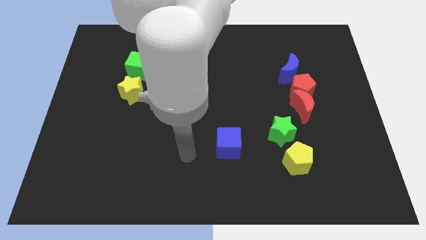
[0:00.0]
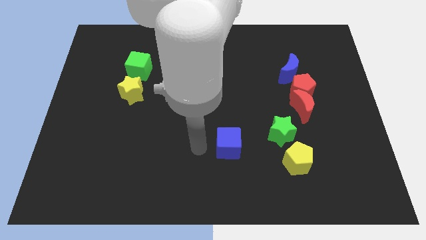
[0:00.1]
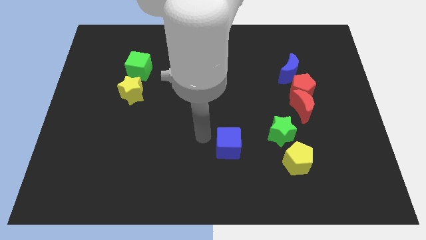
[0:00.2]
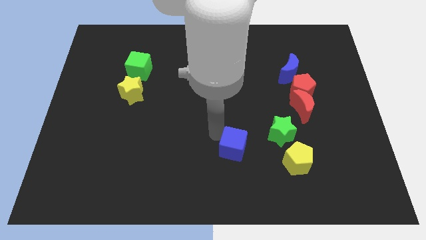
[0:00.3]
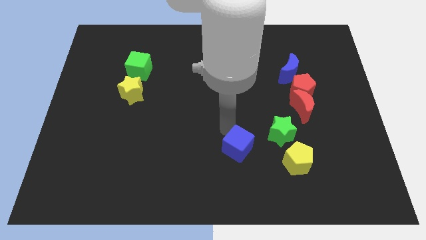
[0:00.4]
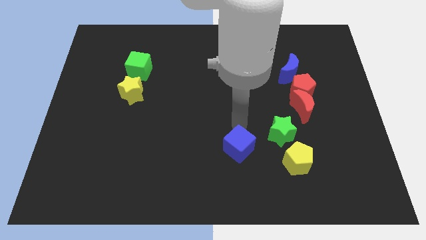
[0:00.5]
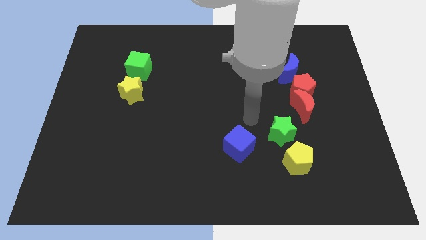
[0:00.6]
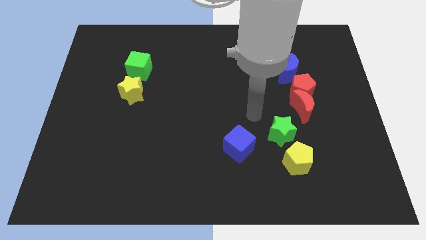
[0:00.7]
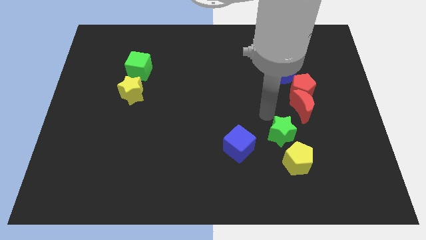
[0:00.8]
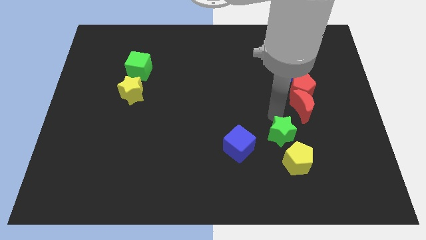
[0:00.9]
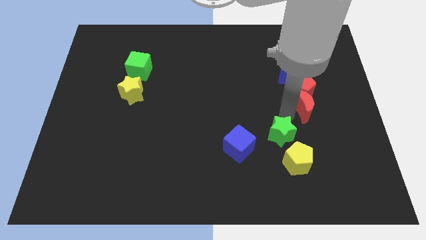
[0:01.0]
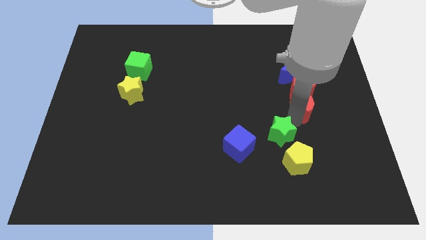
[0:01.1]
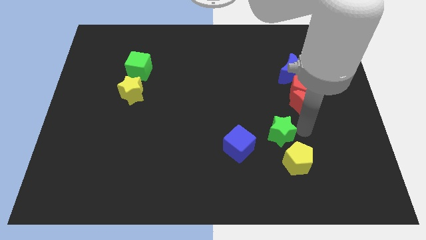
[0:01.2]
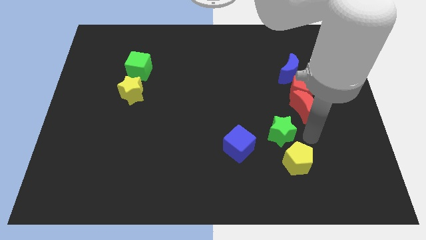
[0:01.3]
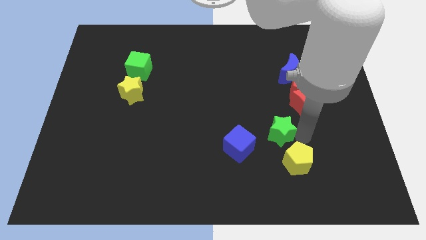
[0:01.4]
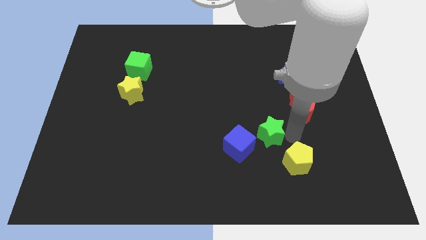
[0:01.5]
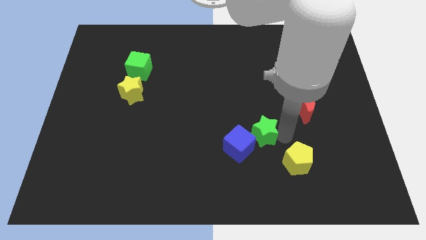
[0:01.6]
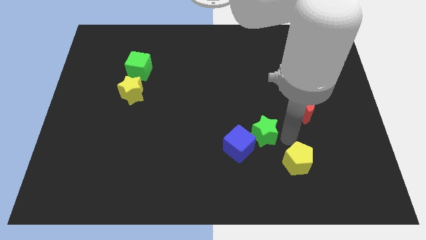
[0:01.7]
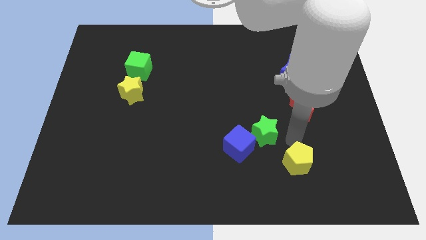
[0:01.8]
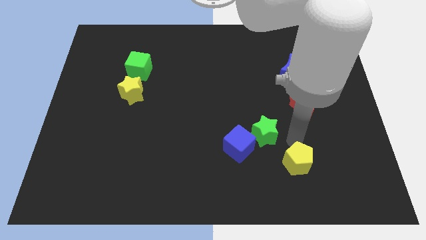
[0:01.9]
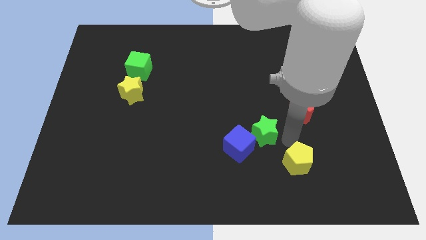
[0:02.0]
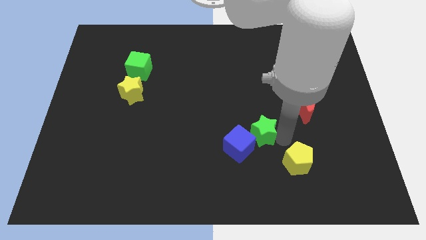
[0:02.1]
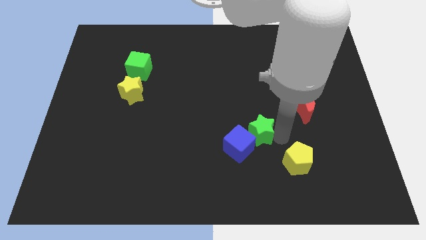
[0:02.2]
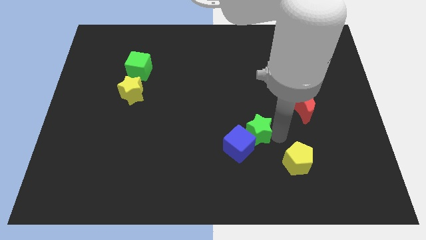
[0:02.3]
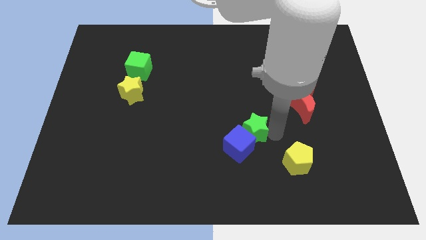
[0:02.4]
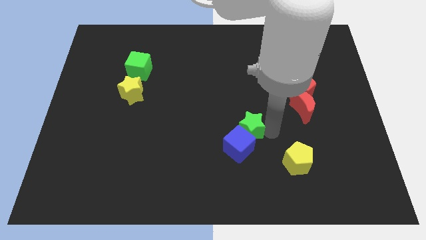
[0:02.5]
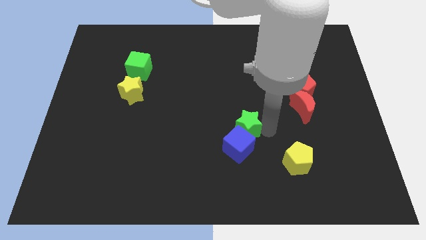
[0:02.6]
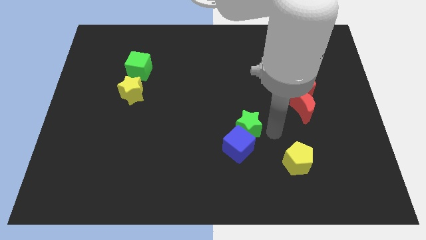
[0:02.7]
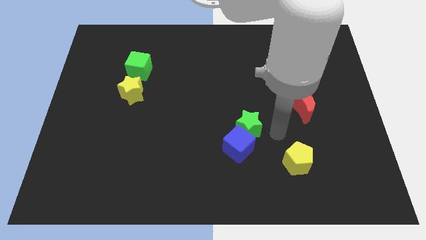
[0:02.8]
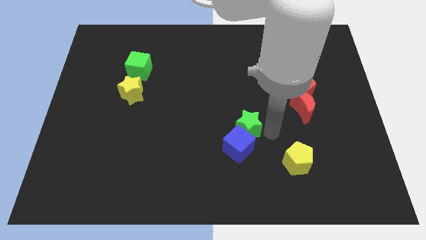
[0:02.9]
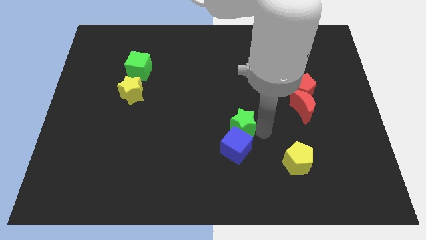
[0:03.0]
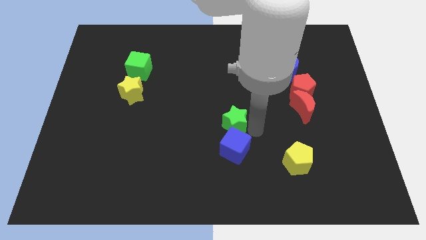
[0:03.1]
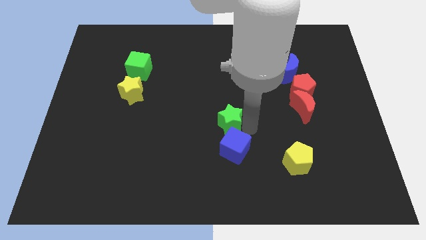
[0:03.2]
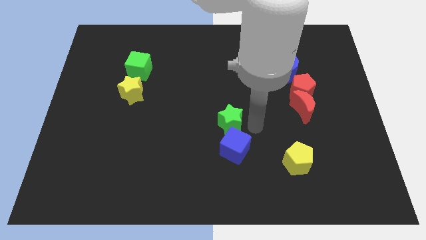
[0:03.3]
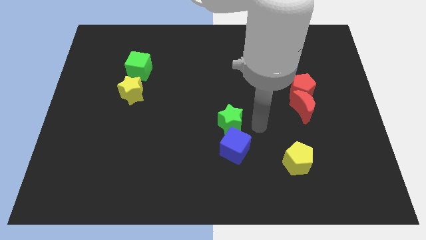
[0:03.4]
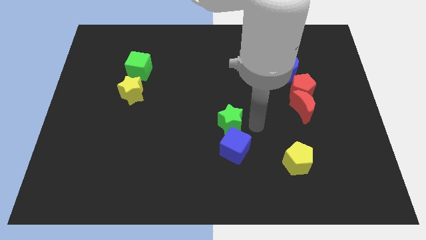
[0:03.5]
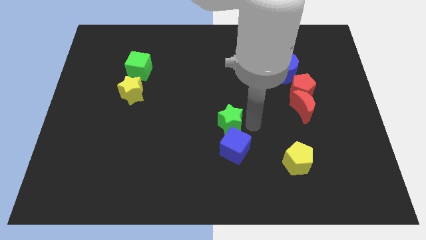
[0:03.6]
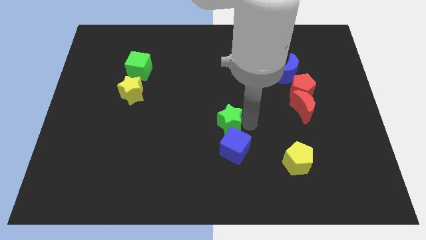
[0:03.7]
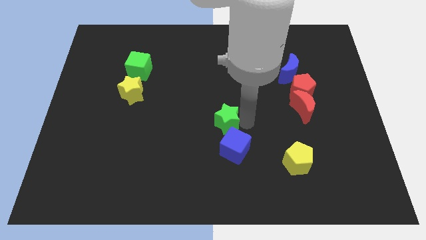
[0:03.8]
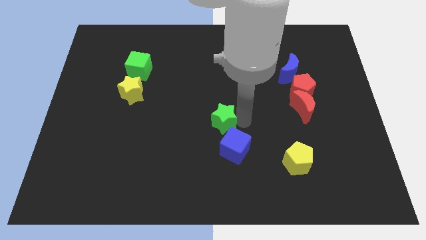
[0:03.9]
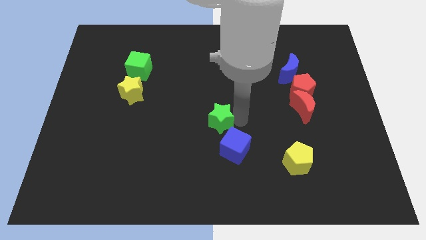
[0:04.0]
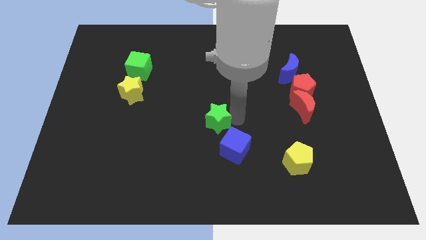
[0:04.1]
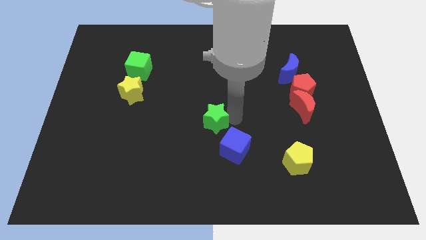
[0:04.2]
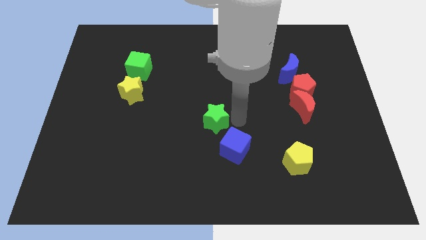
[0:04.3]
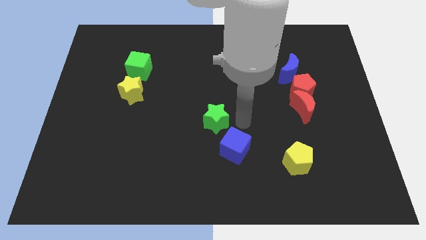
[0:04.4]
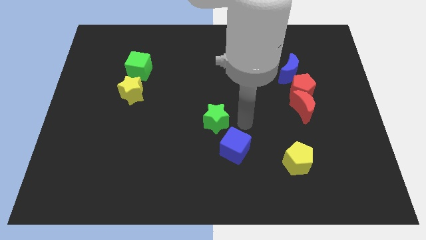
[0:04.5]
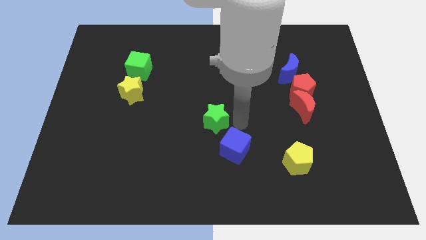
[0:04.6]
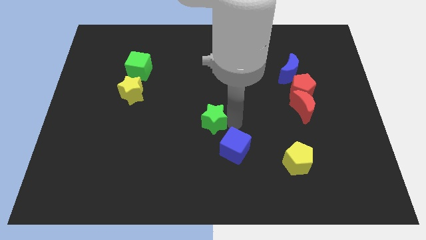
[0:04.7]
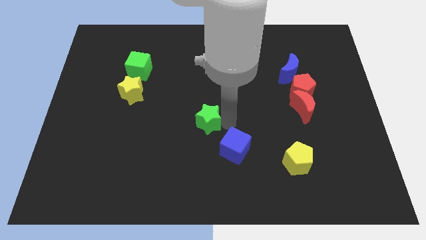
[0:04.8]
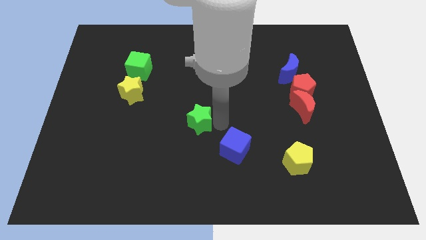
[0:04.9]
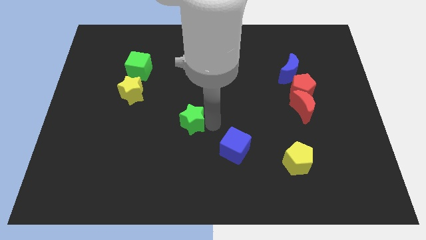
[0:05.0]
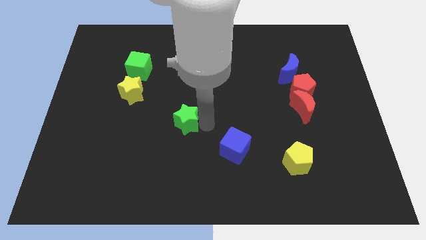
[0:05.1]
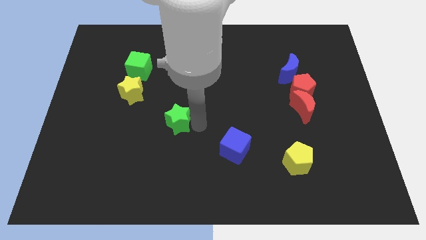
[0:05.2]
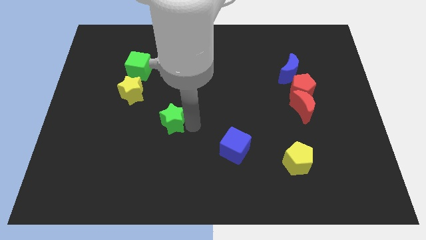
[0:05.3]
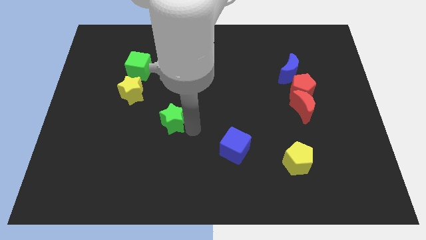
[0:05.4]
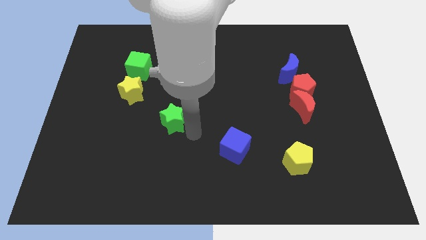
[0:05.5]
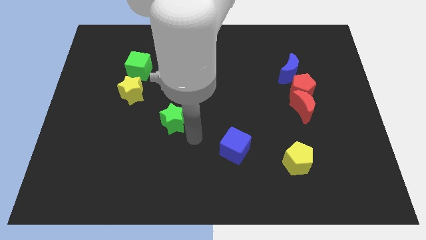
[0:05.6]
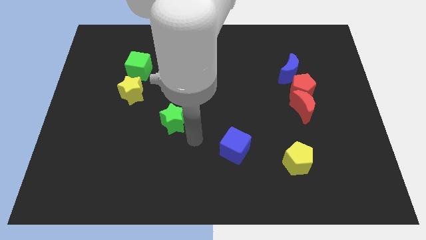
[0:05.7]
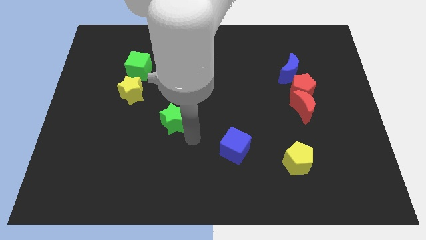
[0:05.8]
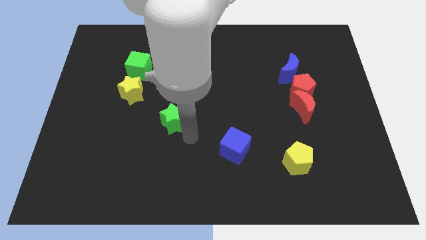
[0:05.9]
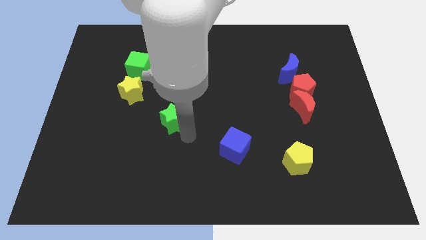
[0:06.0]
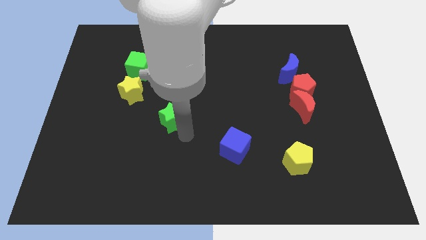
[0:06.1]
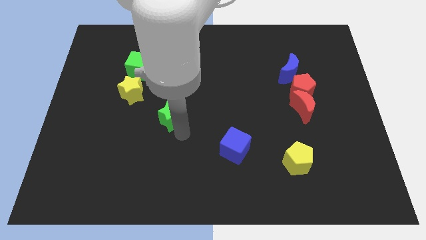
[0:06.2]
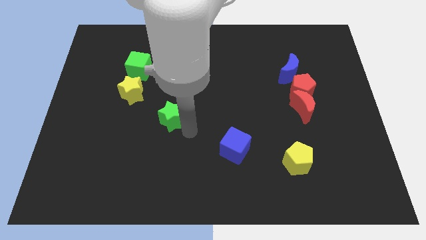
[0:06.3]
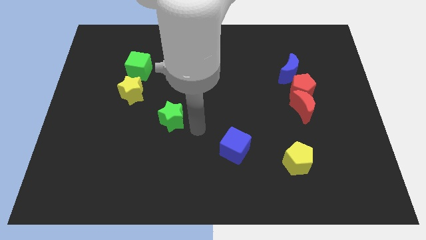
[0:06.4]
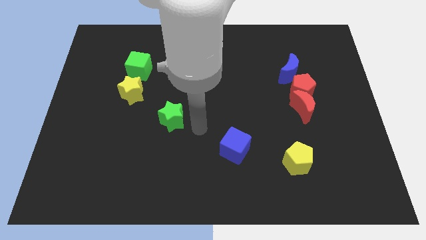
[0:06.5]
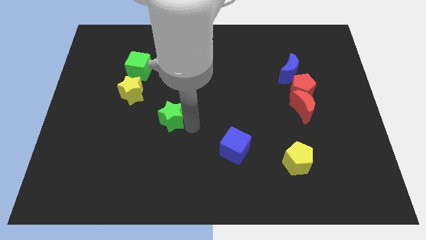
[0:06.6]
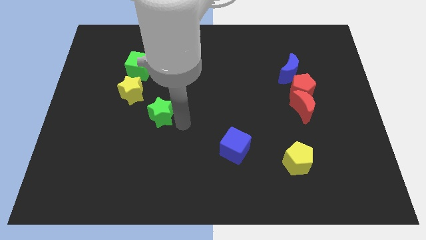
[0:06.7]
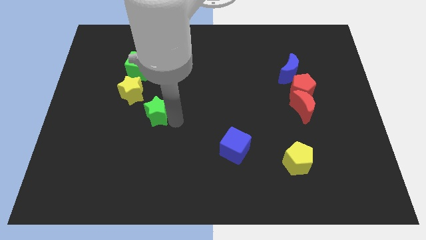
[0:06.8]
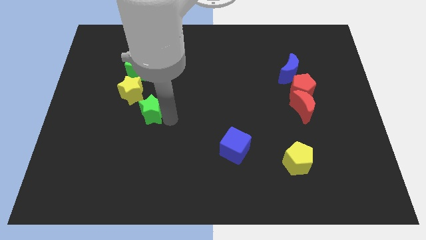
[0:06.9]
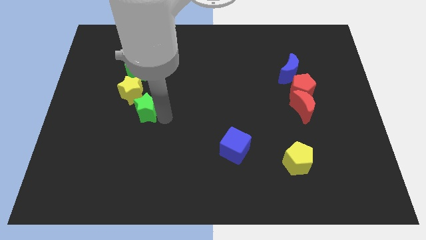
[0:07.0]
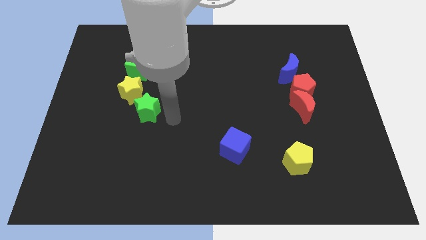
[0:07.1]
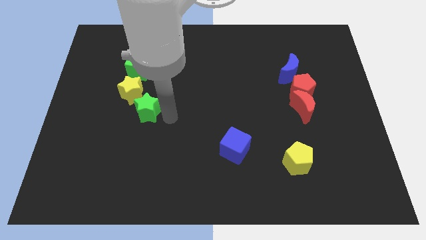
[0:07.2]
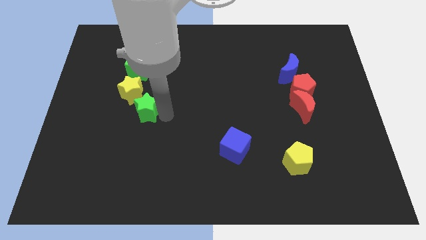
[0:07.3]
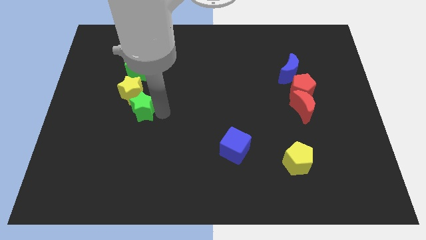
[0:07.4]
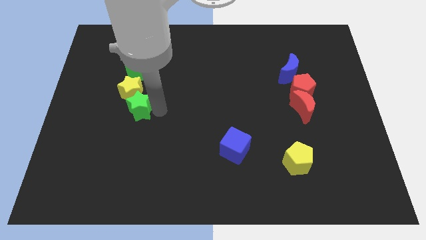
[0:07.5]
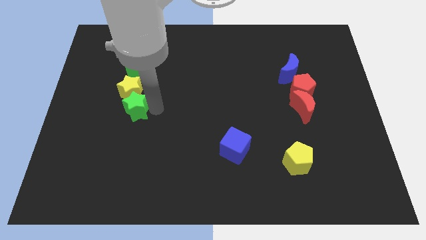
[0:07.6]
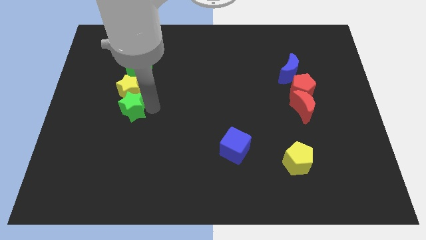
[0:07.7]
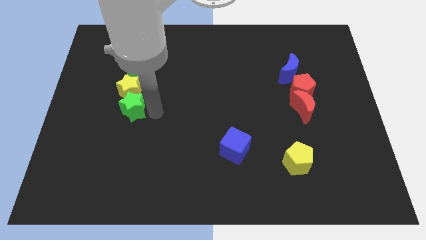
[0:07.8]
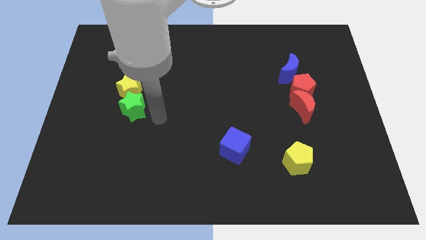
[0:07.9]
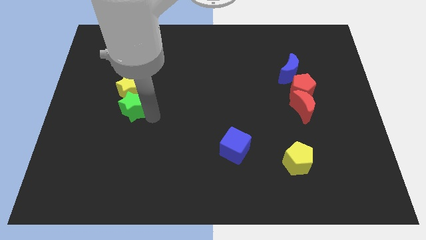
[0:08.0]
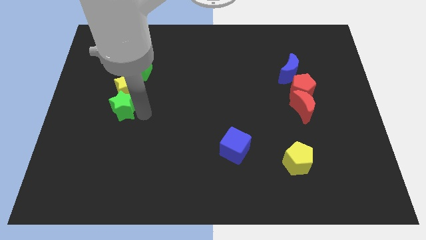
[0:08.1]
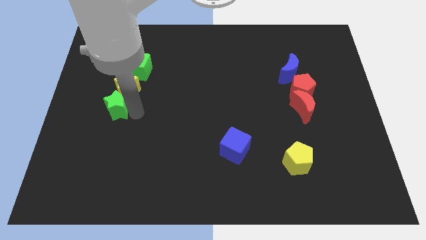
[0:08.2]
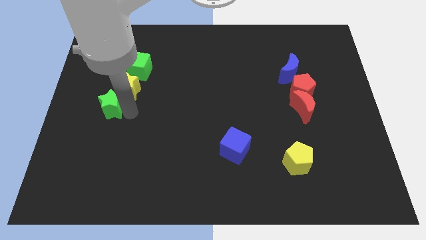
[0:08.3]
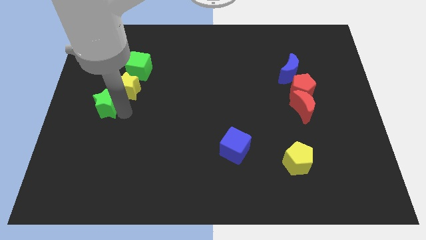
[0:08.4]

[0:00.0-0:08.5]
move the green star to the left side
